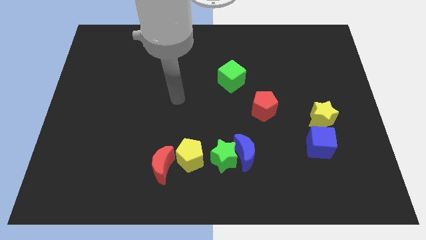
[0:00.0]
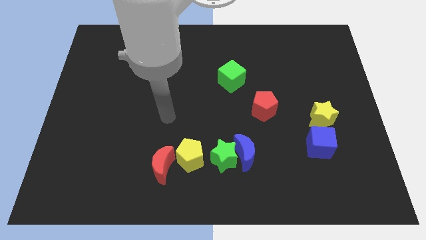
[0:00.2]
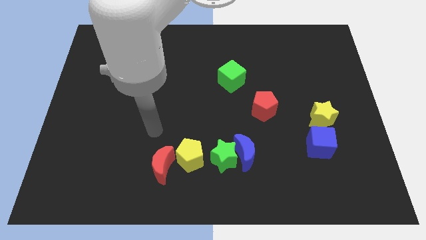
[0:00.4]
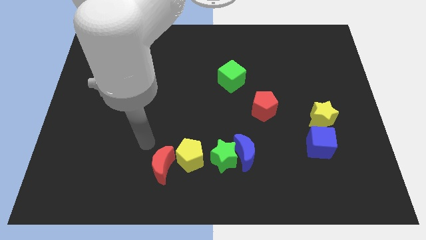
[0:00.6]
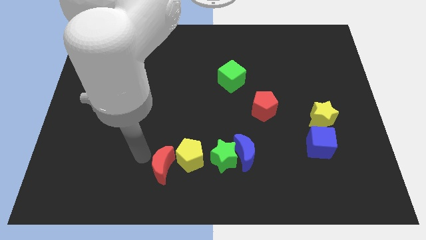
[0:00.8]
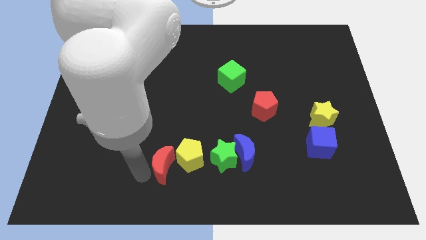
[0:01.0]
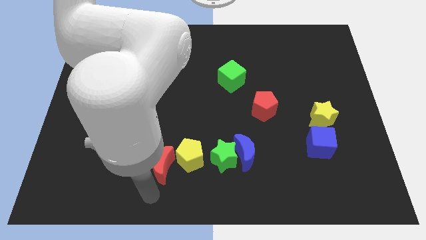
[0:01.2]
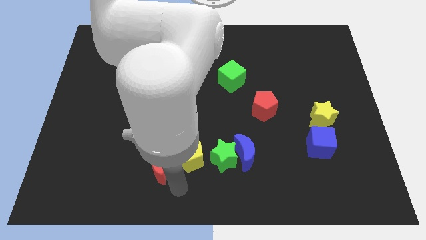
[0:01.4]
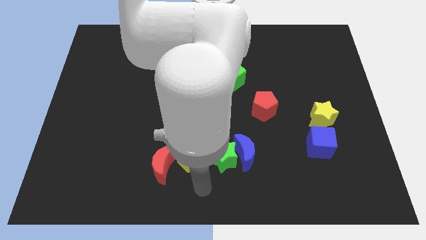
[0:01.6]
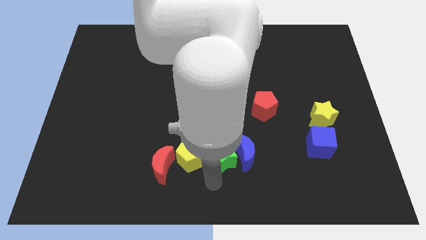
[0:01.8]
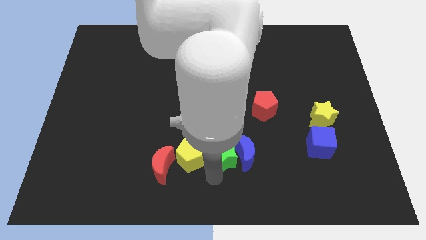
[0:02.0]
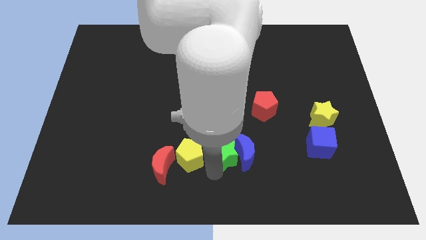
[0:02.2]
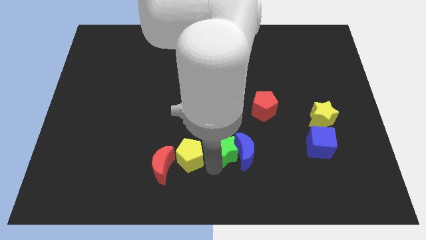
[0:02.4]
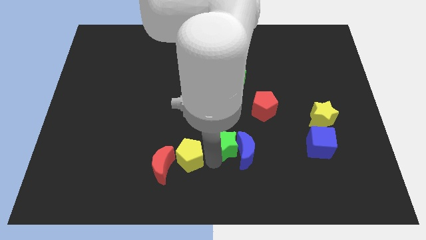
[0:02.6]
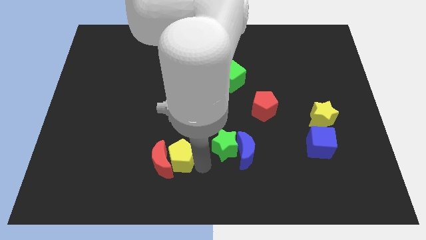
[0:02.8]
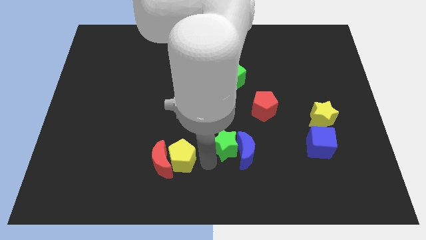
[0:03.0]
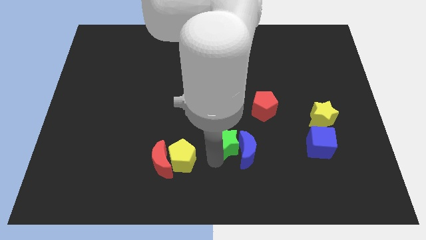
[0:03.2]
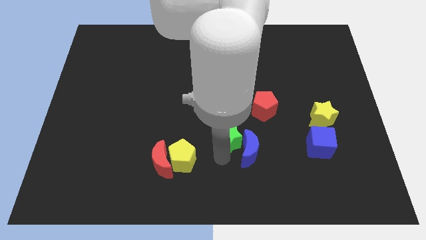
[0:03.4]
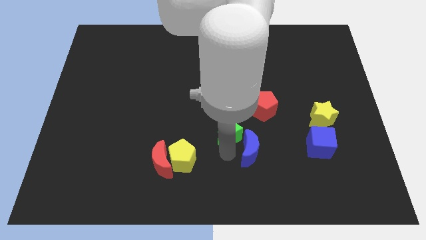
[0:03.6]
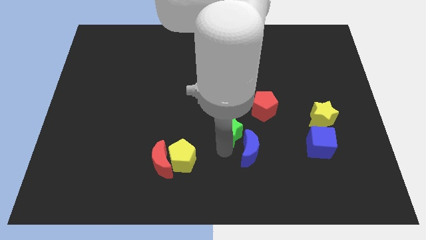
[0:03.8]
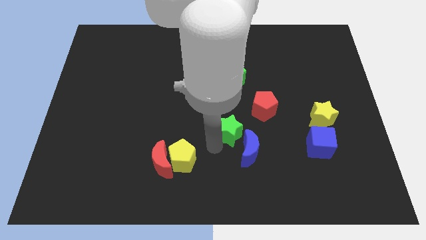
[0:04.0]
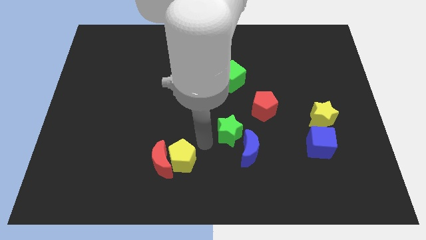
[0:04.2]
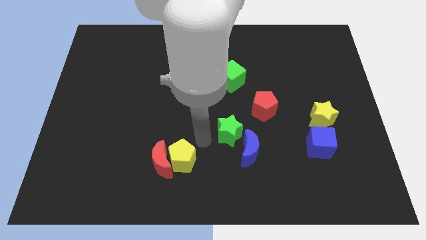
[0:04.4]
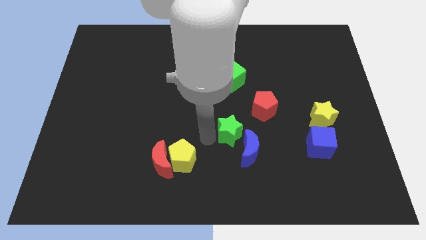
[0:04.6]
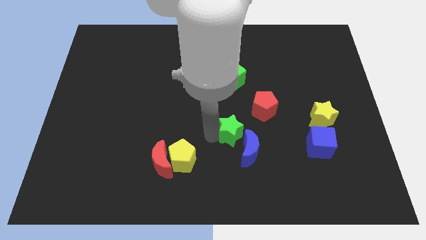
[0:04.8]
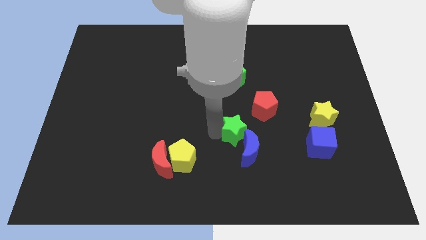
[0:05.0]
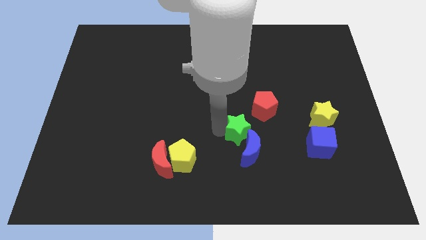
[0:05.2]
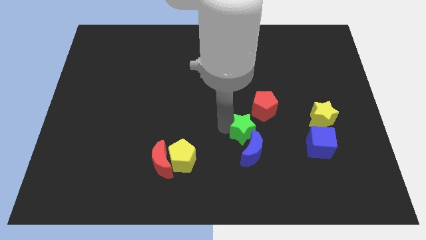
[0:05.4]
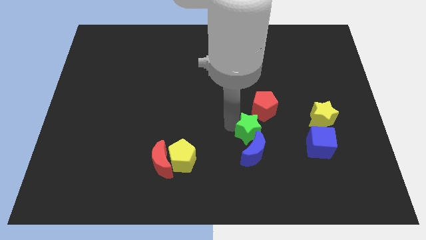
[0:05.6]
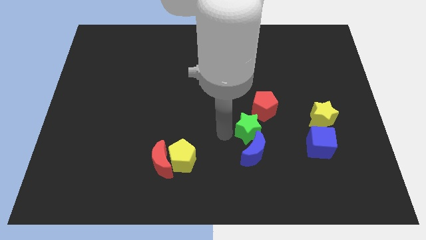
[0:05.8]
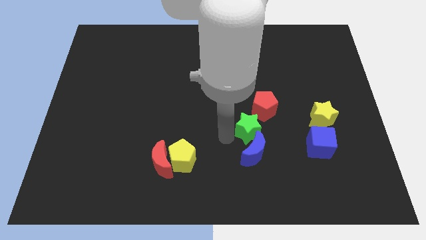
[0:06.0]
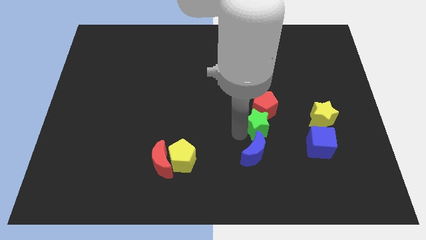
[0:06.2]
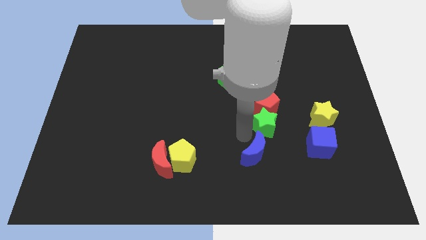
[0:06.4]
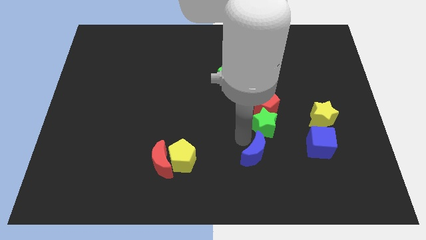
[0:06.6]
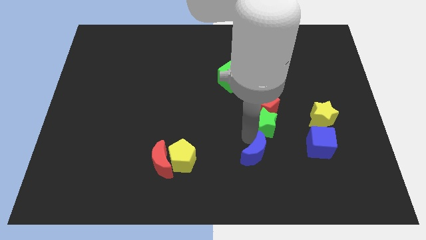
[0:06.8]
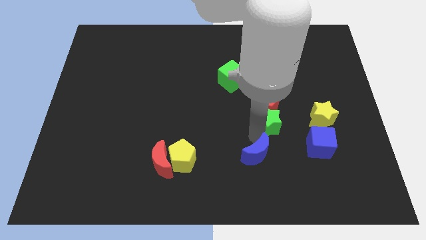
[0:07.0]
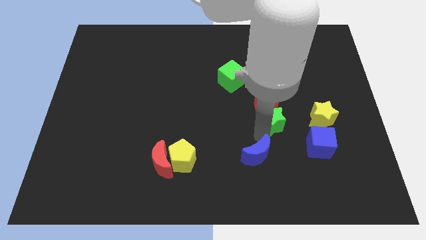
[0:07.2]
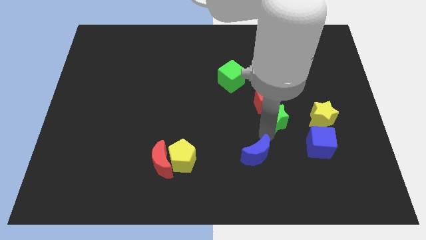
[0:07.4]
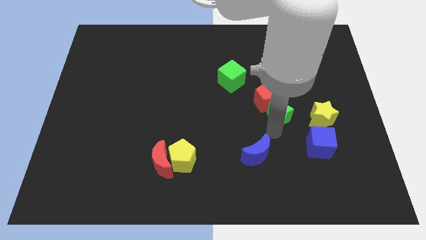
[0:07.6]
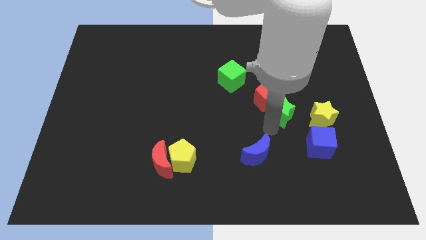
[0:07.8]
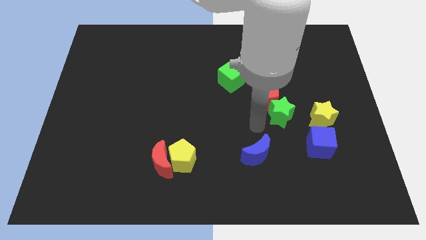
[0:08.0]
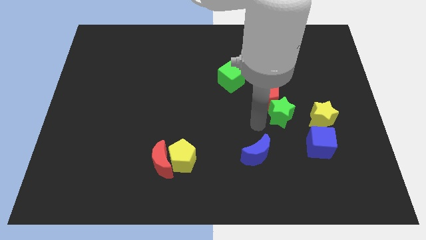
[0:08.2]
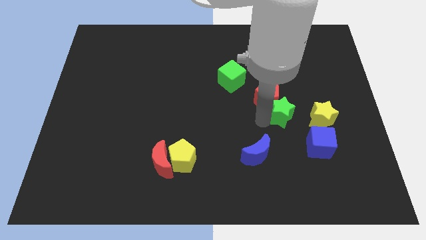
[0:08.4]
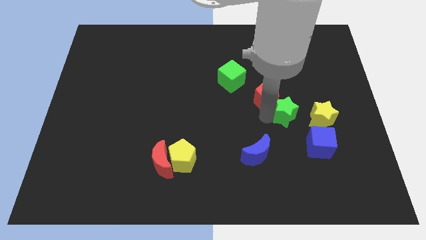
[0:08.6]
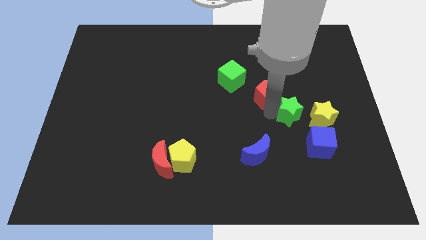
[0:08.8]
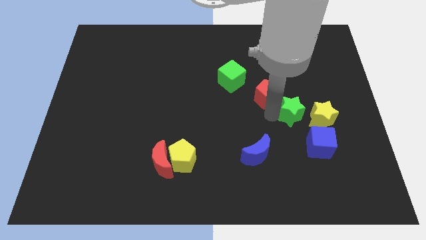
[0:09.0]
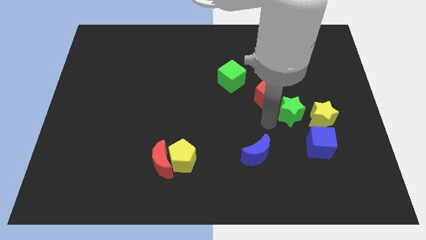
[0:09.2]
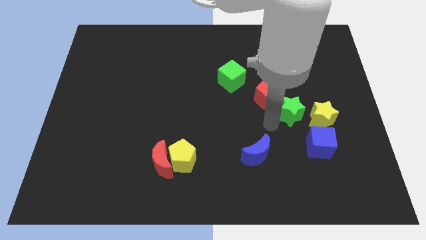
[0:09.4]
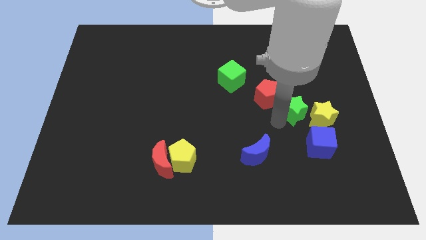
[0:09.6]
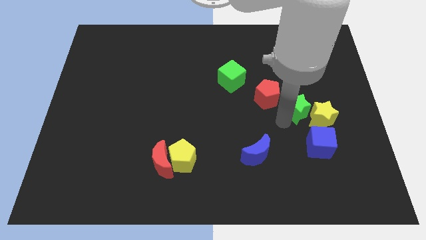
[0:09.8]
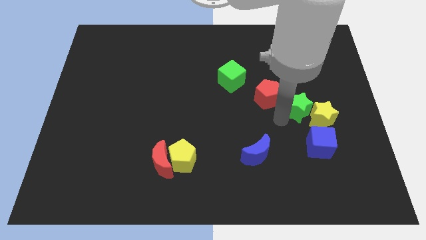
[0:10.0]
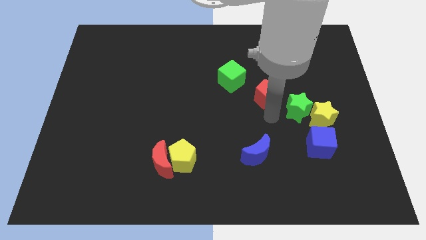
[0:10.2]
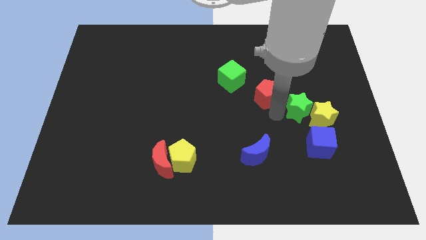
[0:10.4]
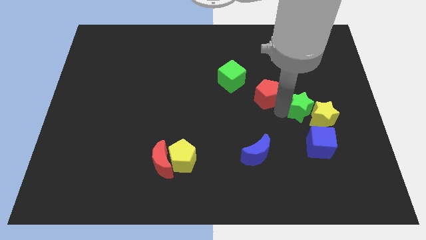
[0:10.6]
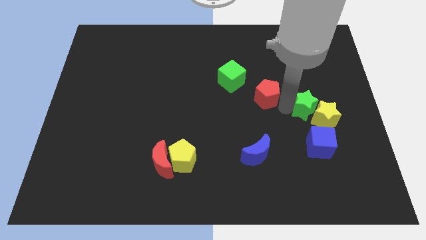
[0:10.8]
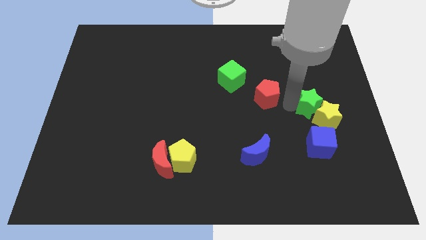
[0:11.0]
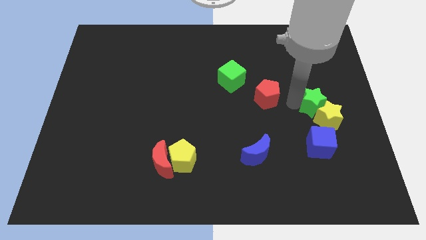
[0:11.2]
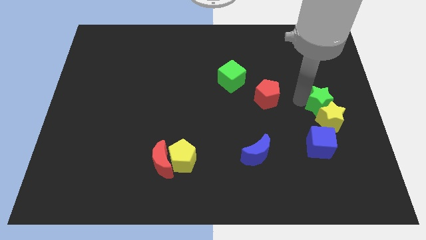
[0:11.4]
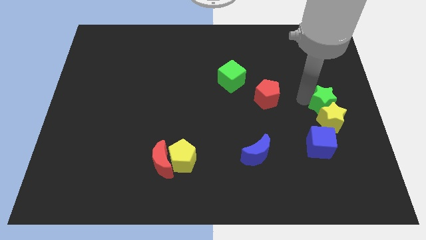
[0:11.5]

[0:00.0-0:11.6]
slide the green star to the right side of the board

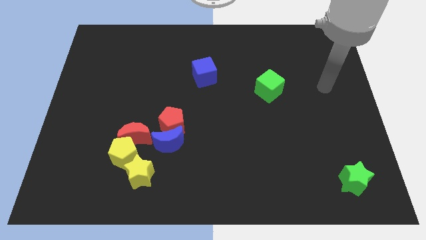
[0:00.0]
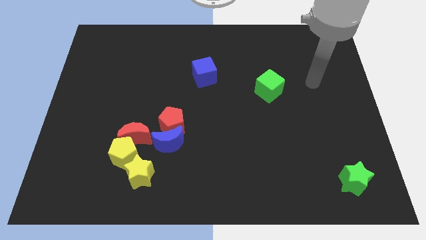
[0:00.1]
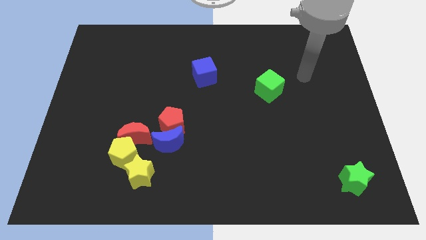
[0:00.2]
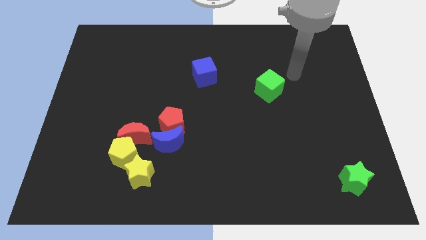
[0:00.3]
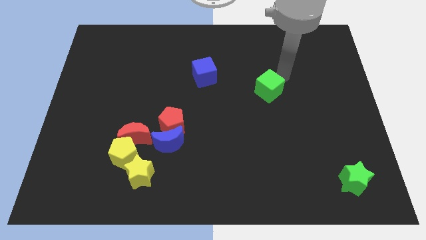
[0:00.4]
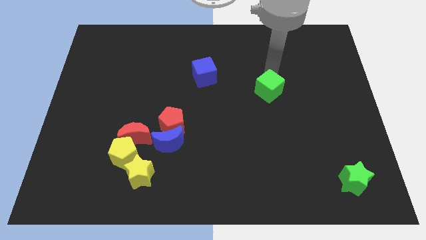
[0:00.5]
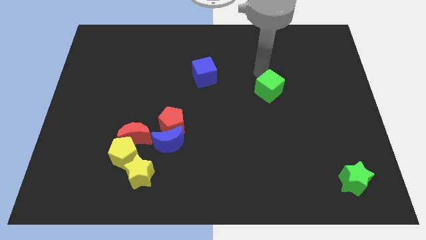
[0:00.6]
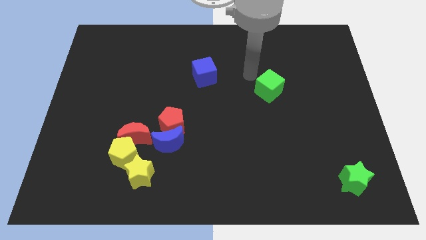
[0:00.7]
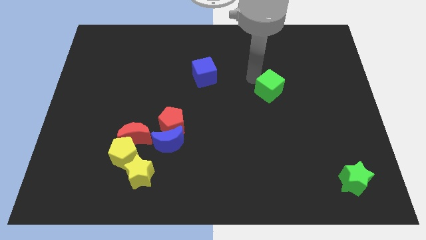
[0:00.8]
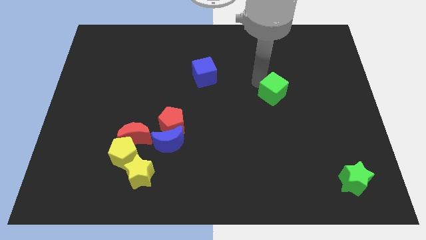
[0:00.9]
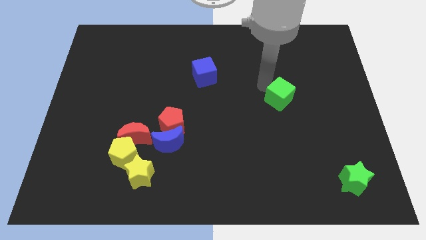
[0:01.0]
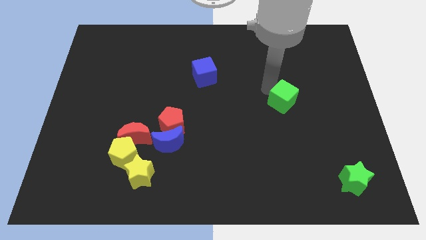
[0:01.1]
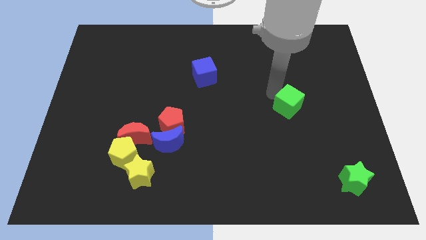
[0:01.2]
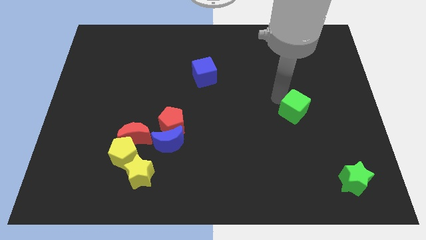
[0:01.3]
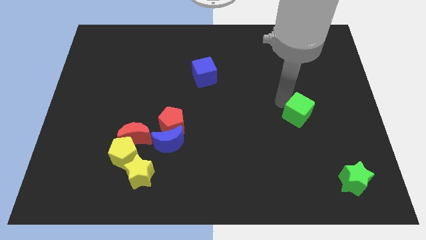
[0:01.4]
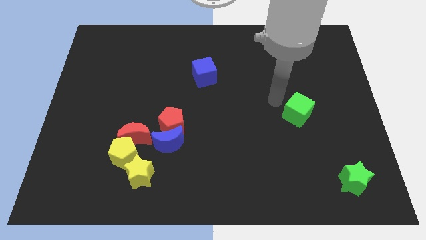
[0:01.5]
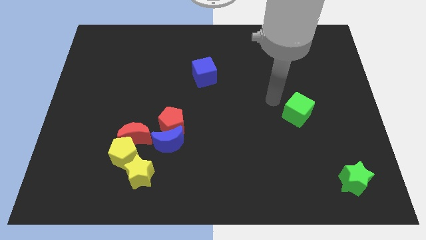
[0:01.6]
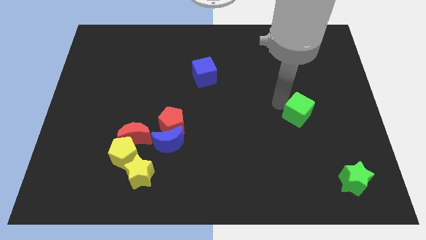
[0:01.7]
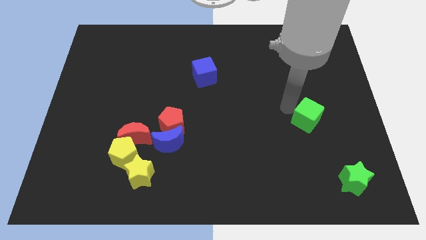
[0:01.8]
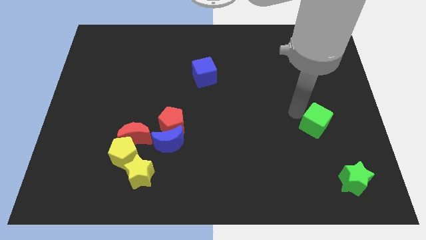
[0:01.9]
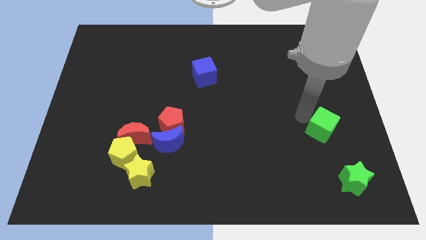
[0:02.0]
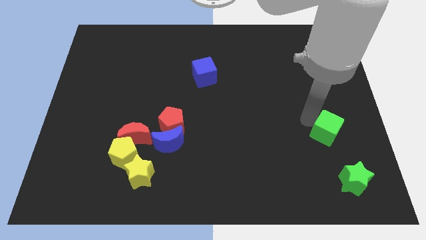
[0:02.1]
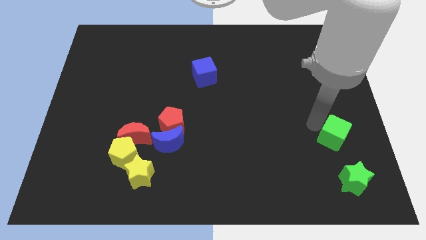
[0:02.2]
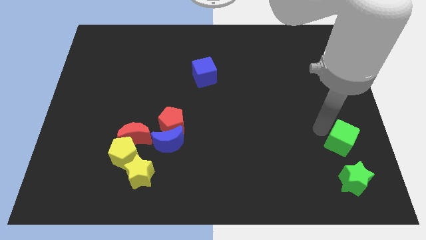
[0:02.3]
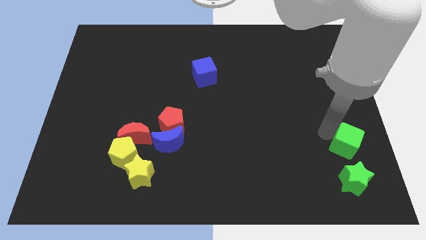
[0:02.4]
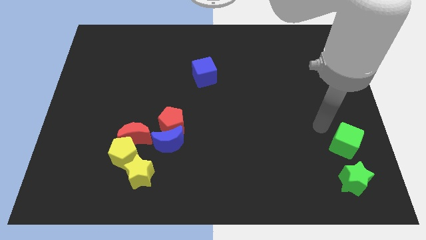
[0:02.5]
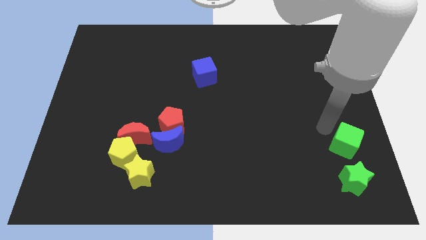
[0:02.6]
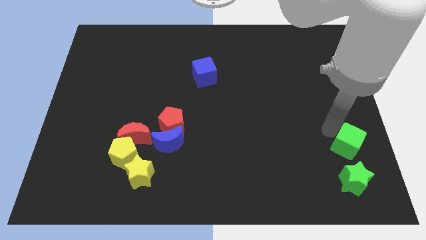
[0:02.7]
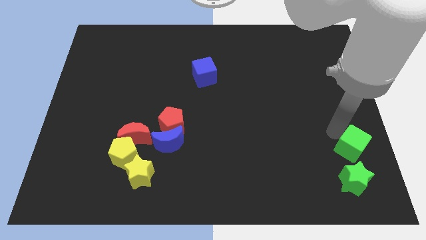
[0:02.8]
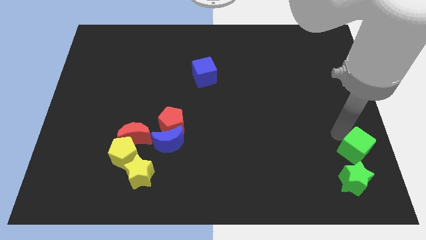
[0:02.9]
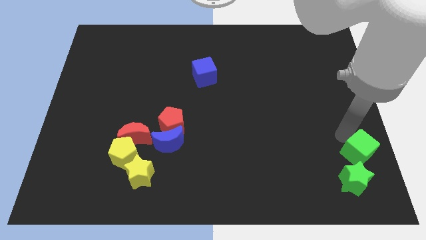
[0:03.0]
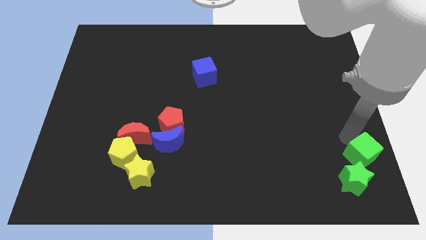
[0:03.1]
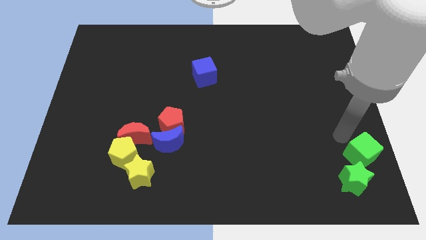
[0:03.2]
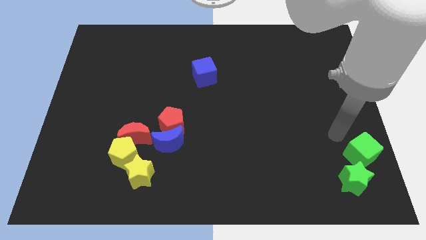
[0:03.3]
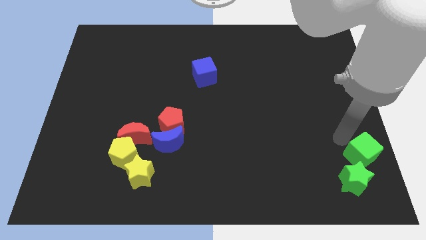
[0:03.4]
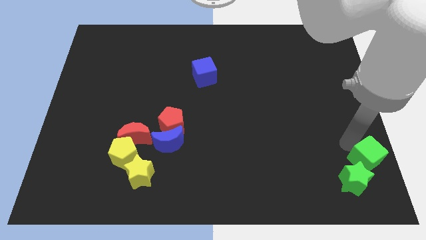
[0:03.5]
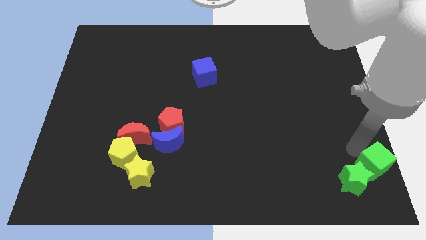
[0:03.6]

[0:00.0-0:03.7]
put the green cube to the bottom right of the board
